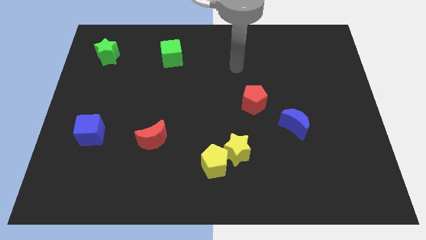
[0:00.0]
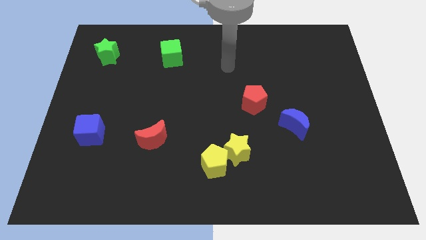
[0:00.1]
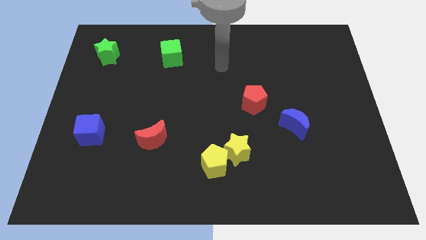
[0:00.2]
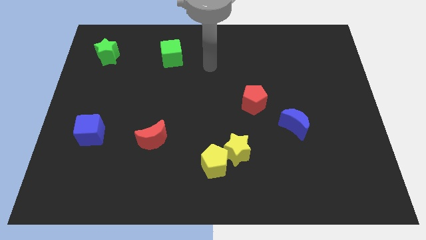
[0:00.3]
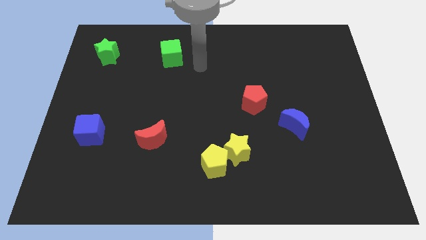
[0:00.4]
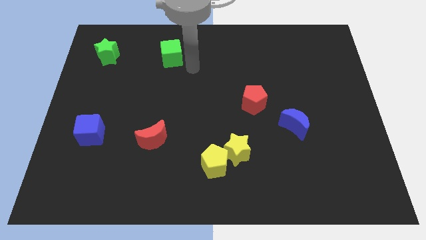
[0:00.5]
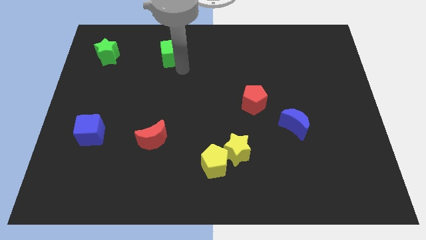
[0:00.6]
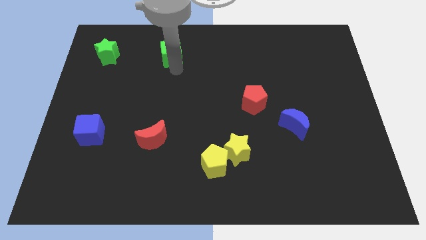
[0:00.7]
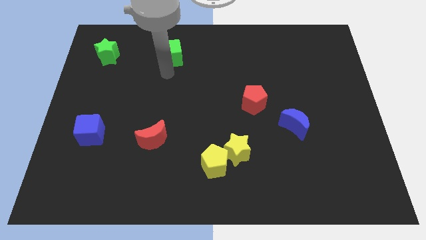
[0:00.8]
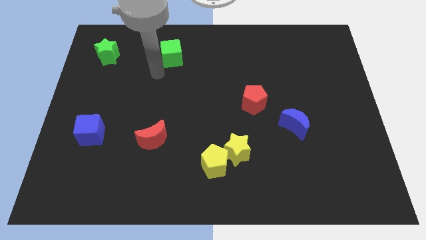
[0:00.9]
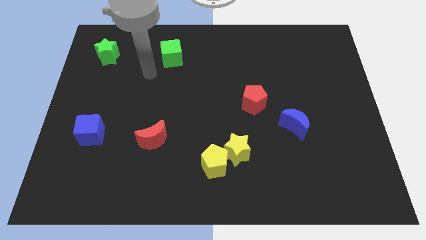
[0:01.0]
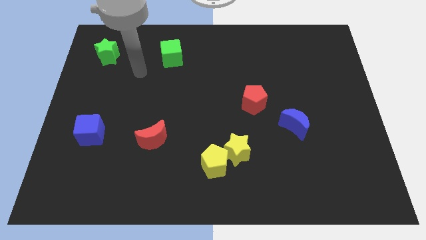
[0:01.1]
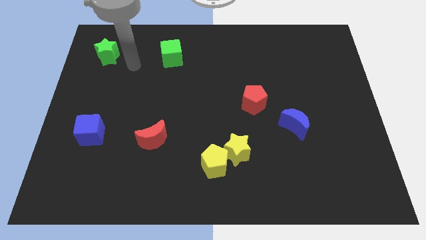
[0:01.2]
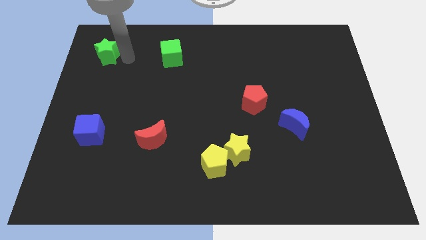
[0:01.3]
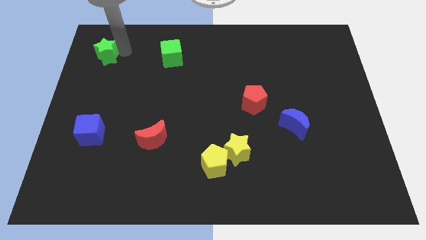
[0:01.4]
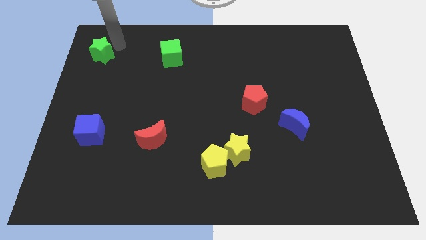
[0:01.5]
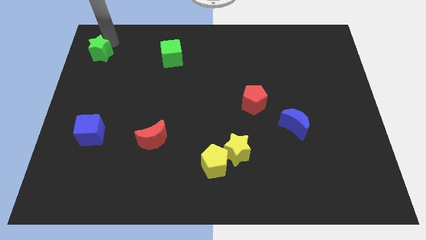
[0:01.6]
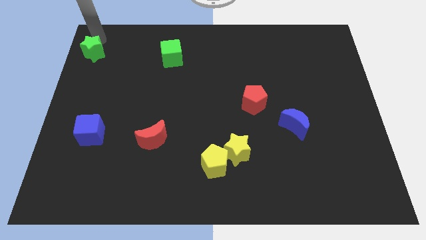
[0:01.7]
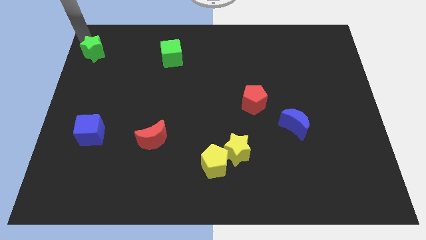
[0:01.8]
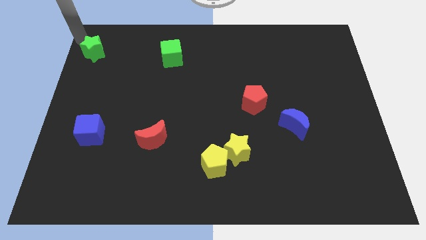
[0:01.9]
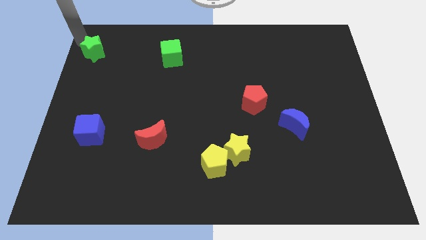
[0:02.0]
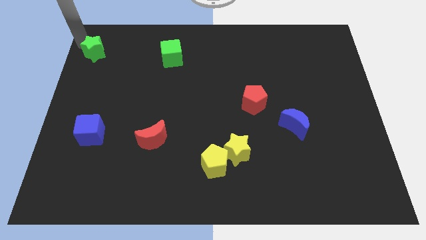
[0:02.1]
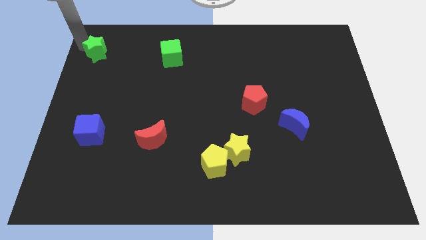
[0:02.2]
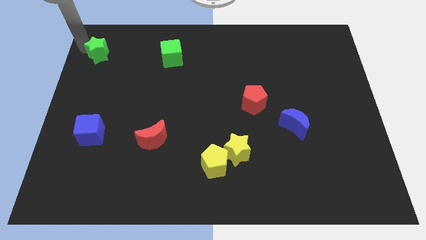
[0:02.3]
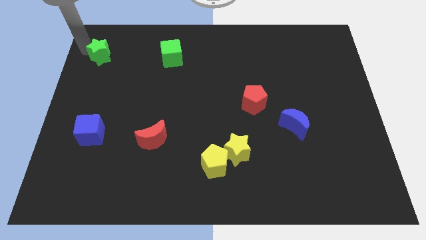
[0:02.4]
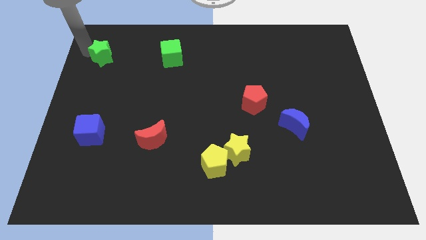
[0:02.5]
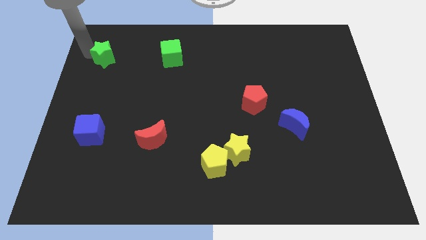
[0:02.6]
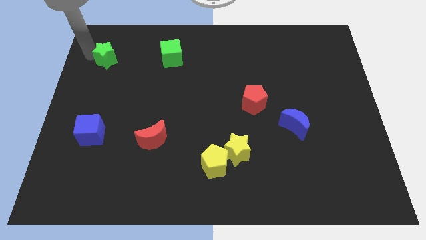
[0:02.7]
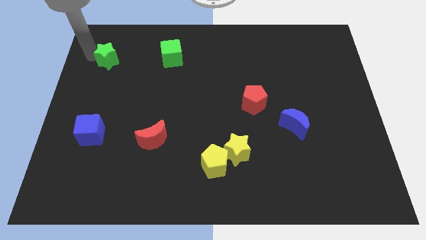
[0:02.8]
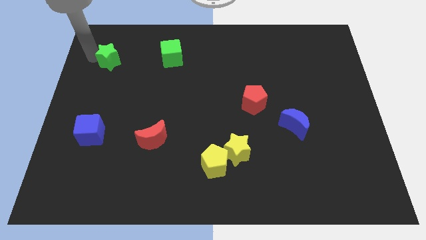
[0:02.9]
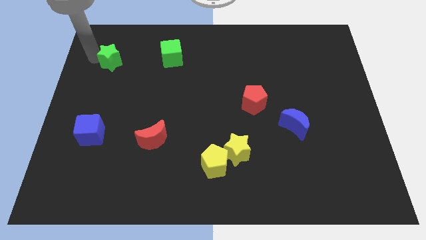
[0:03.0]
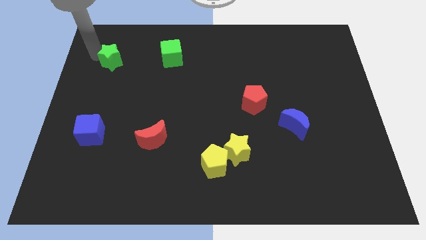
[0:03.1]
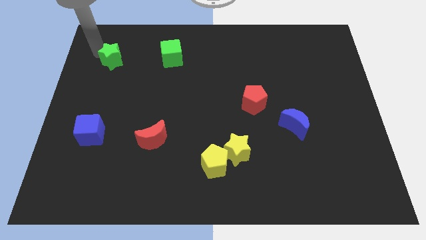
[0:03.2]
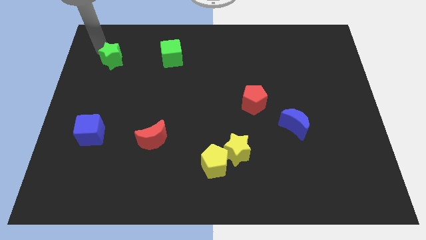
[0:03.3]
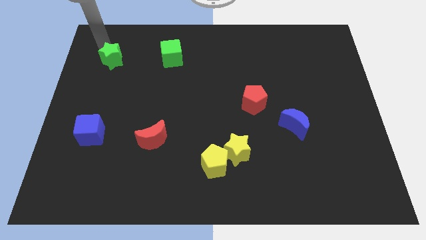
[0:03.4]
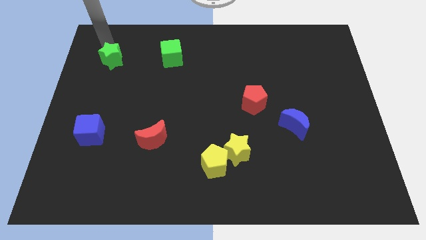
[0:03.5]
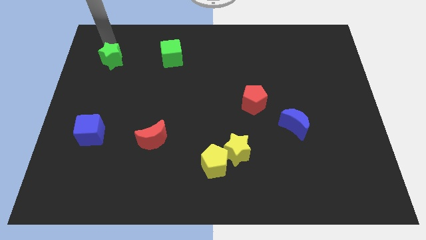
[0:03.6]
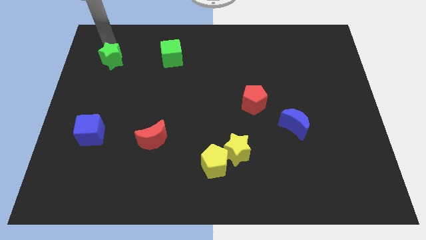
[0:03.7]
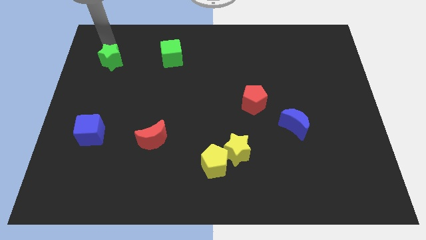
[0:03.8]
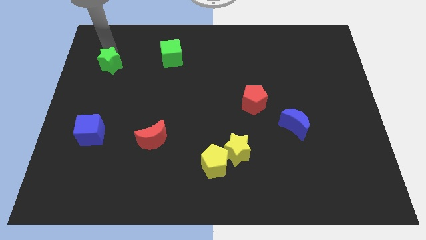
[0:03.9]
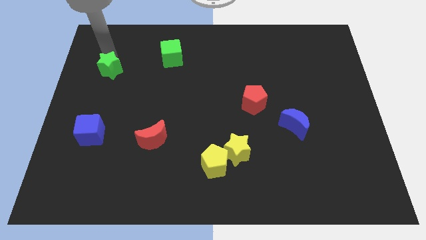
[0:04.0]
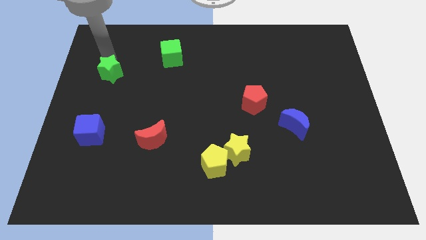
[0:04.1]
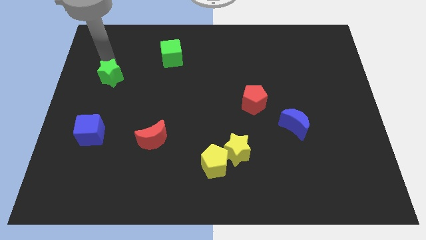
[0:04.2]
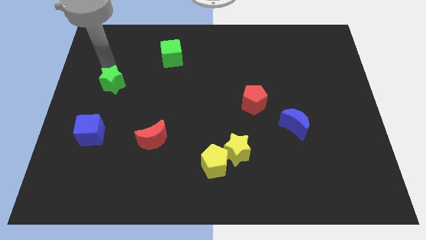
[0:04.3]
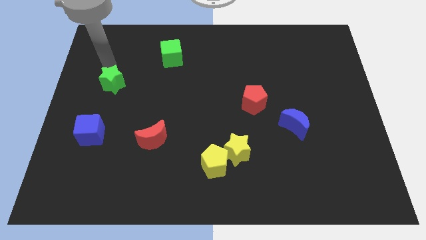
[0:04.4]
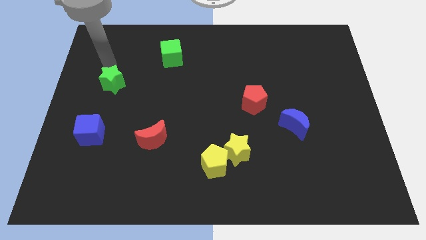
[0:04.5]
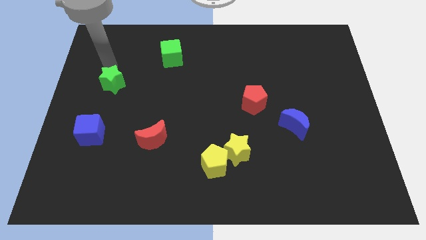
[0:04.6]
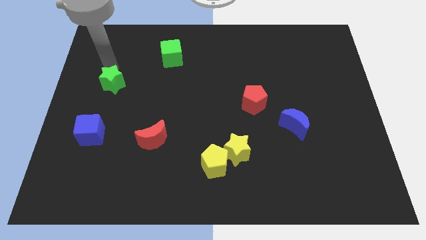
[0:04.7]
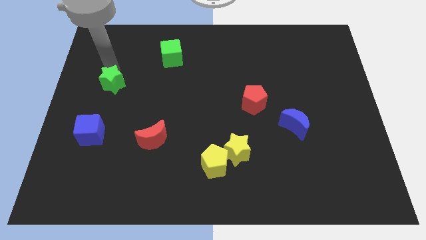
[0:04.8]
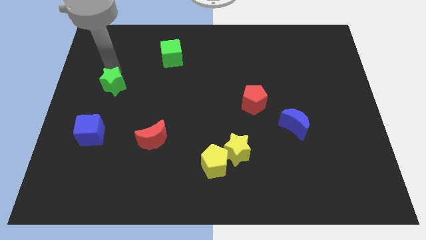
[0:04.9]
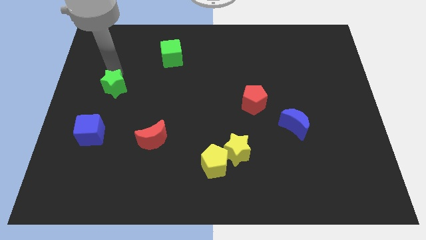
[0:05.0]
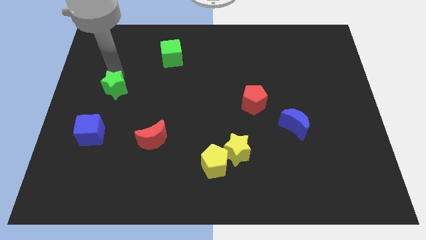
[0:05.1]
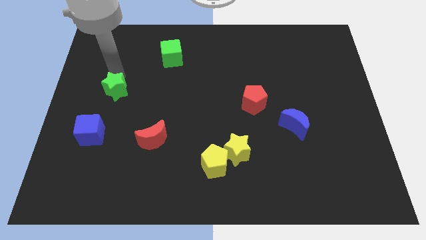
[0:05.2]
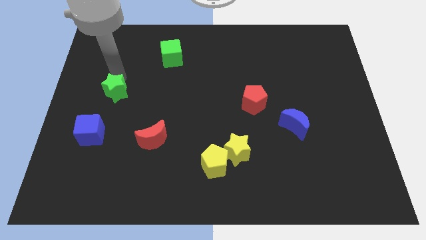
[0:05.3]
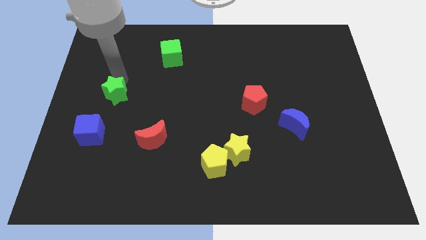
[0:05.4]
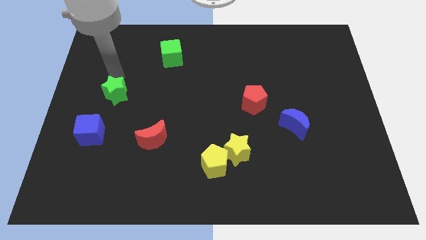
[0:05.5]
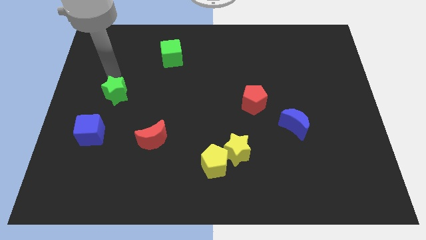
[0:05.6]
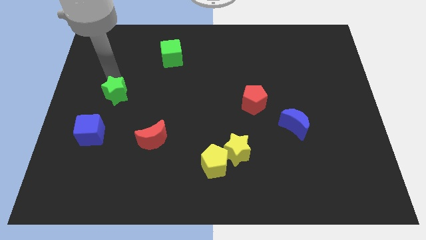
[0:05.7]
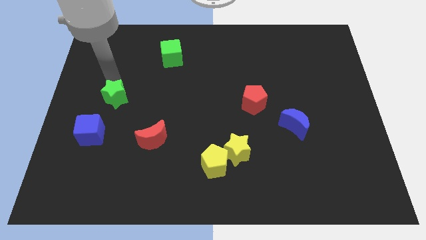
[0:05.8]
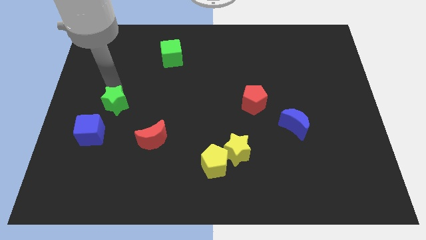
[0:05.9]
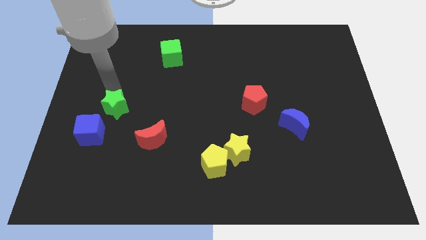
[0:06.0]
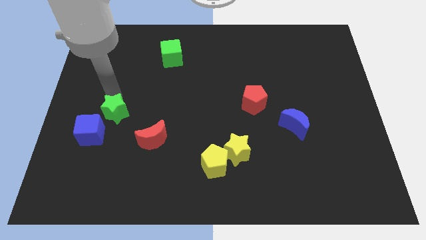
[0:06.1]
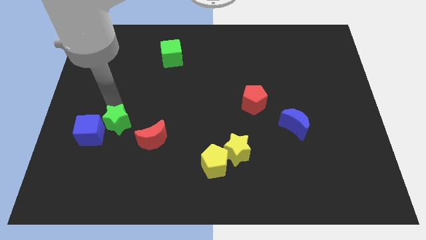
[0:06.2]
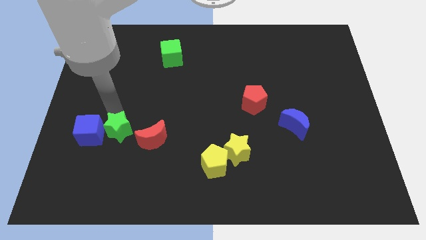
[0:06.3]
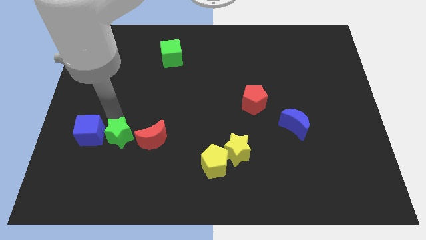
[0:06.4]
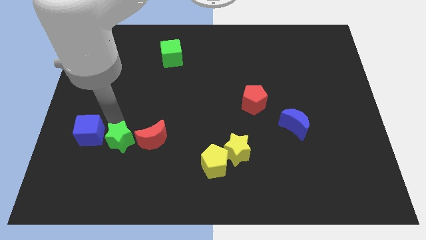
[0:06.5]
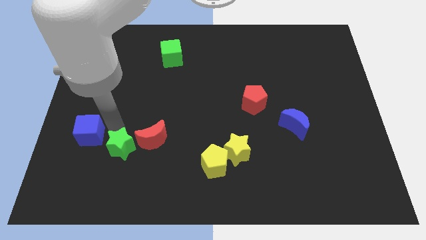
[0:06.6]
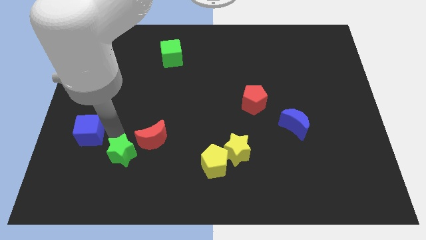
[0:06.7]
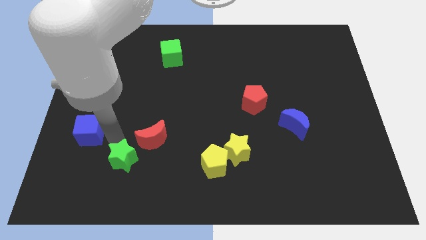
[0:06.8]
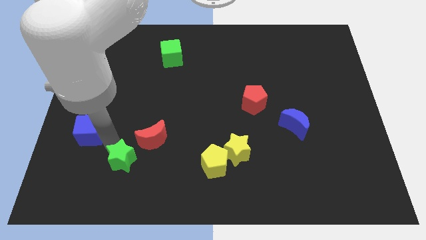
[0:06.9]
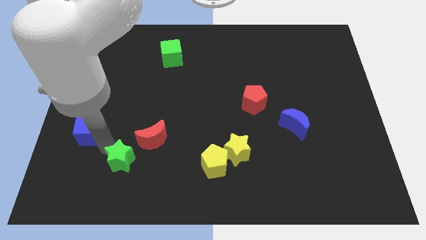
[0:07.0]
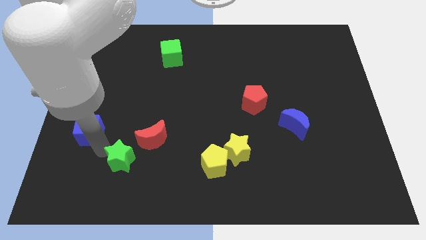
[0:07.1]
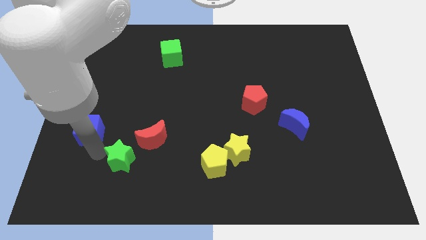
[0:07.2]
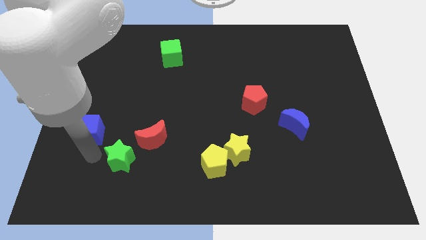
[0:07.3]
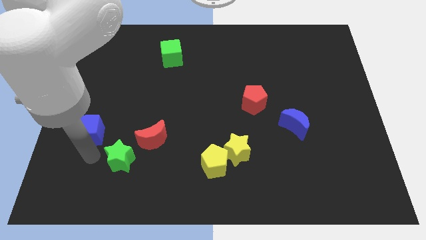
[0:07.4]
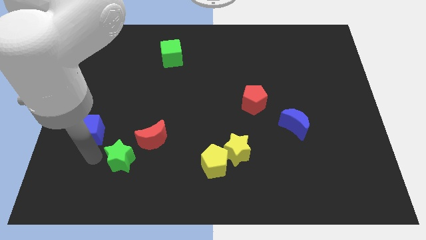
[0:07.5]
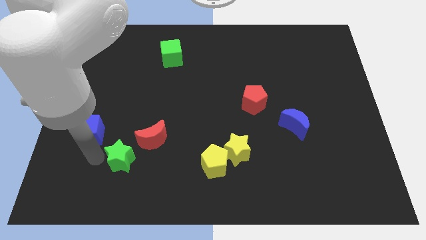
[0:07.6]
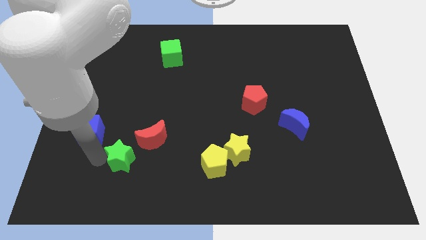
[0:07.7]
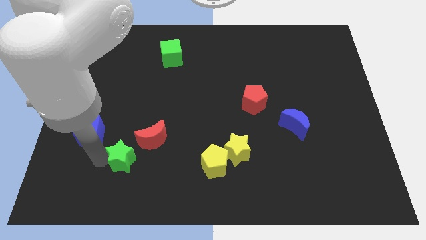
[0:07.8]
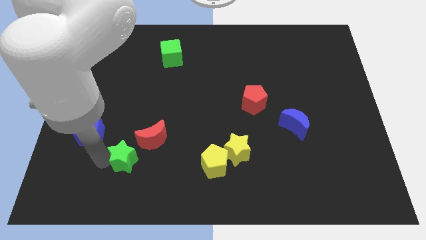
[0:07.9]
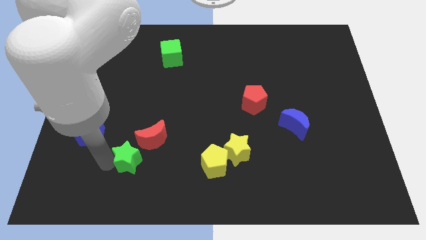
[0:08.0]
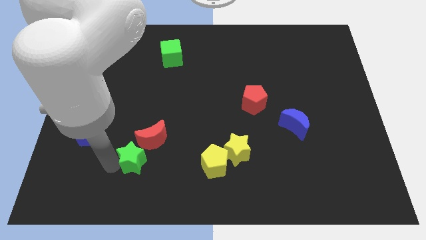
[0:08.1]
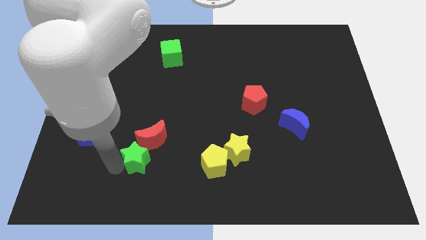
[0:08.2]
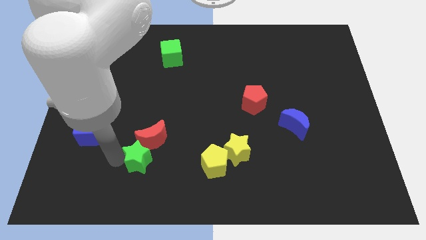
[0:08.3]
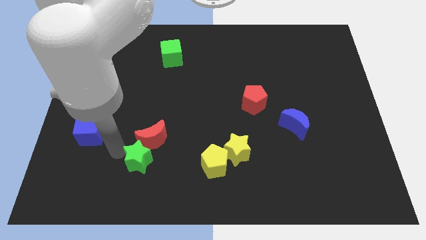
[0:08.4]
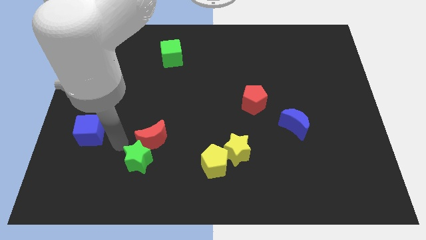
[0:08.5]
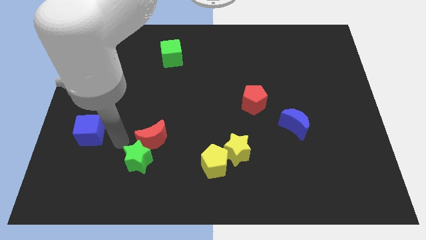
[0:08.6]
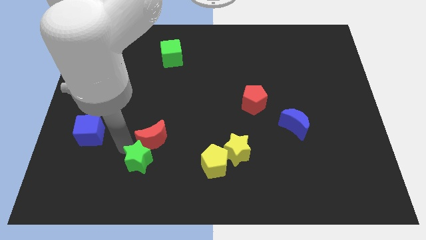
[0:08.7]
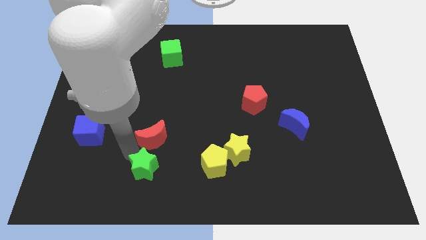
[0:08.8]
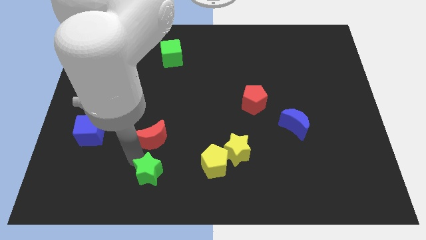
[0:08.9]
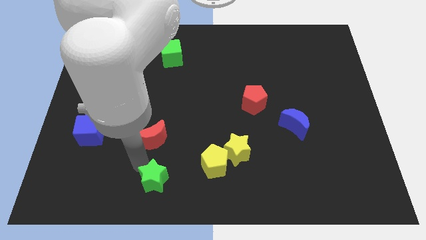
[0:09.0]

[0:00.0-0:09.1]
move the green star to the bottom
